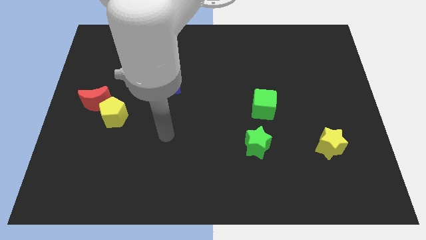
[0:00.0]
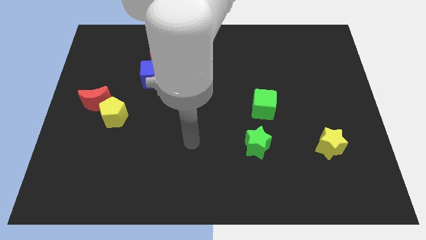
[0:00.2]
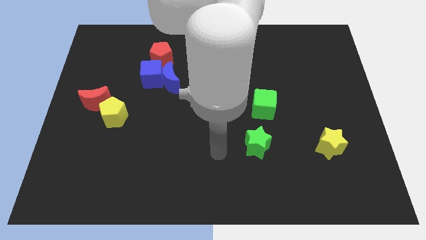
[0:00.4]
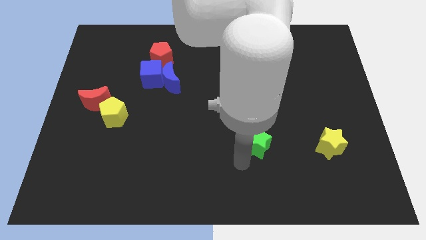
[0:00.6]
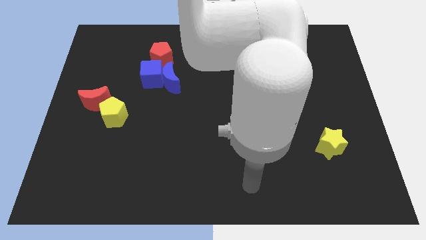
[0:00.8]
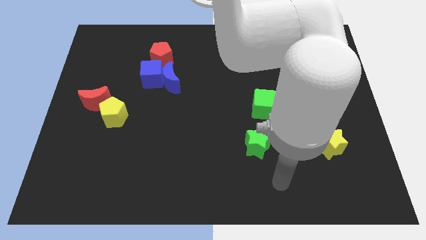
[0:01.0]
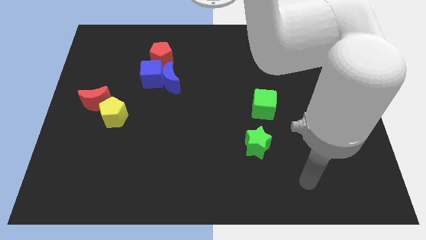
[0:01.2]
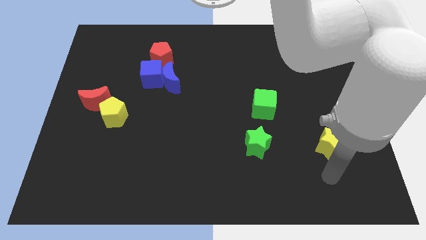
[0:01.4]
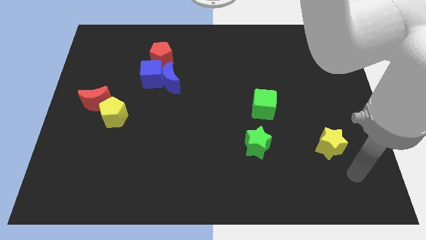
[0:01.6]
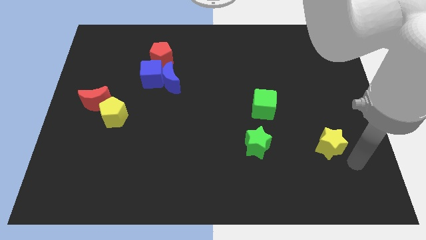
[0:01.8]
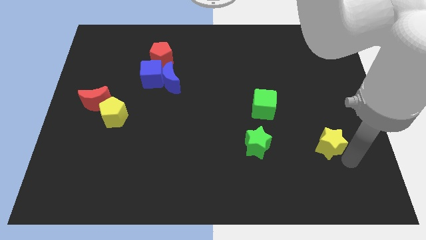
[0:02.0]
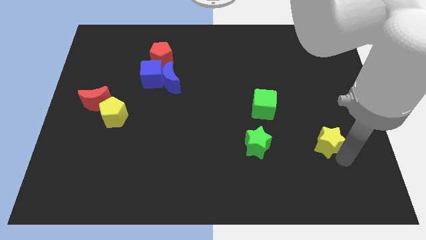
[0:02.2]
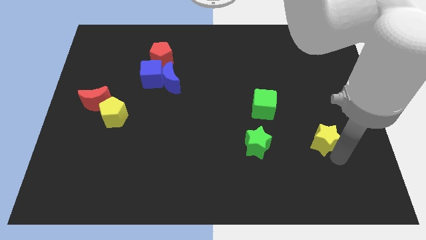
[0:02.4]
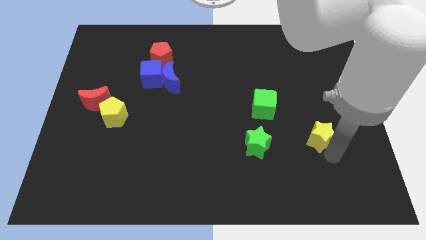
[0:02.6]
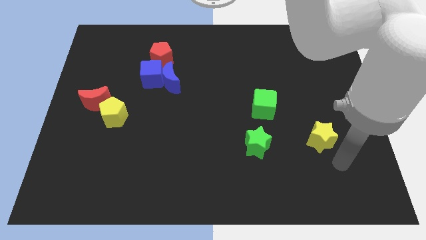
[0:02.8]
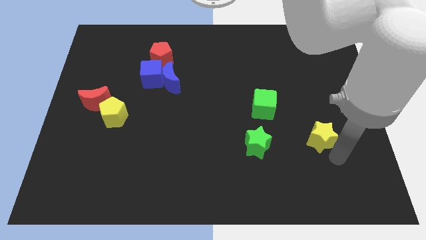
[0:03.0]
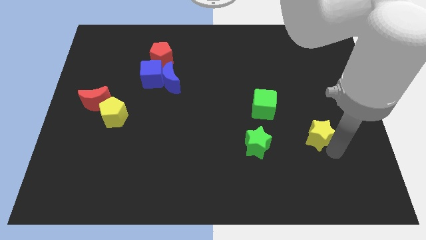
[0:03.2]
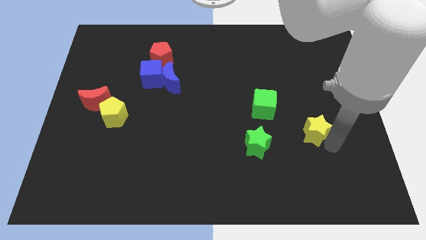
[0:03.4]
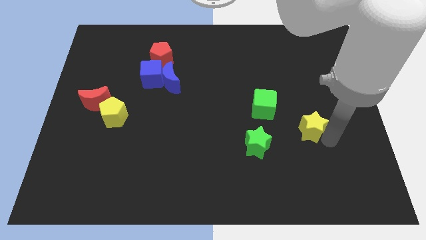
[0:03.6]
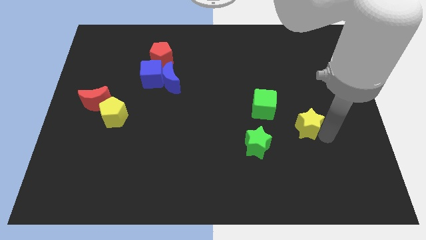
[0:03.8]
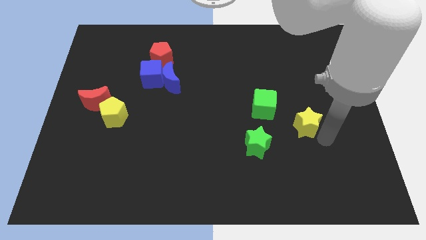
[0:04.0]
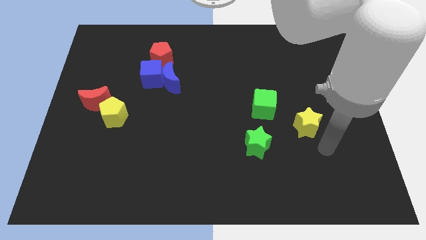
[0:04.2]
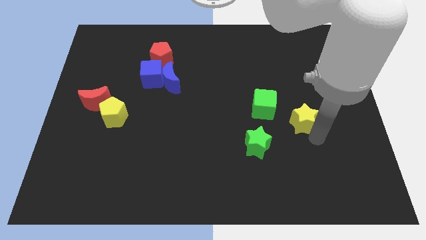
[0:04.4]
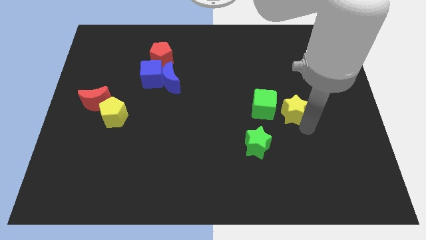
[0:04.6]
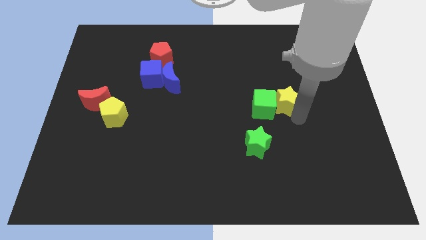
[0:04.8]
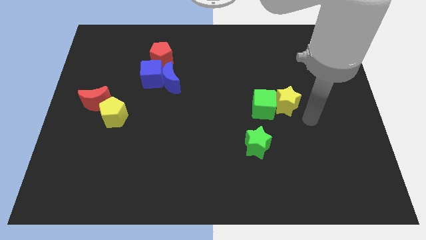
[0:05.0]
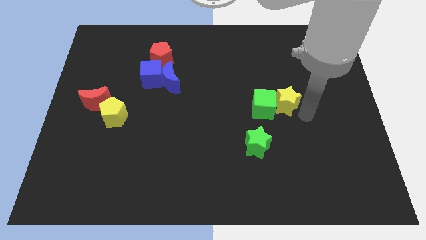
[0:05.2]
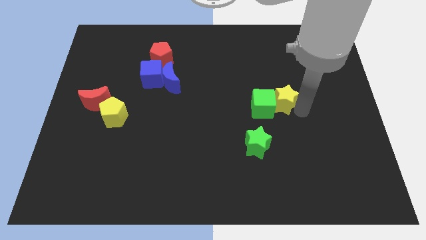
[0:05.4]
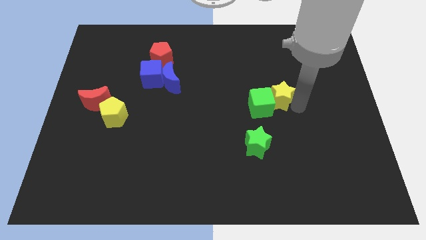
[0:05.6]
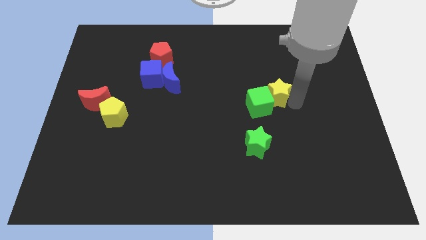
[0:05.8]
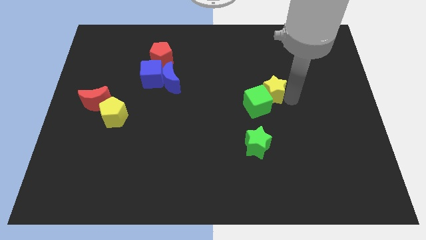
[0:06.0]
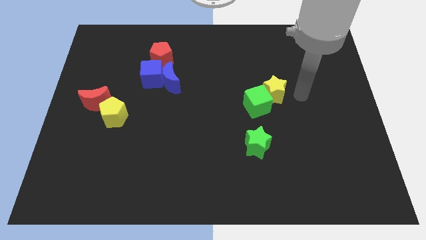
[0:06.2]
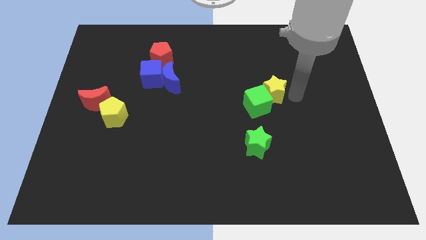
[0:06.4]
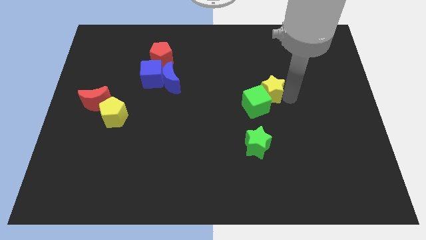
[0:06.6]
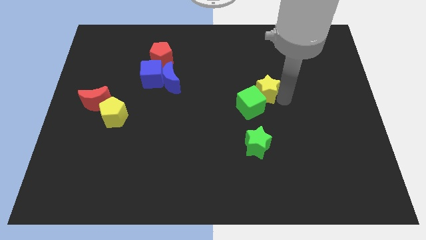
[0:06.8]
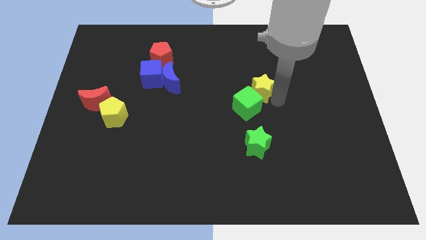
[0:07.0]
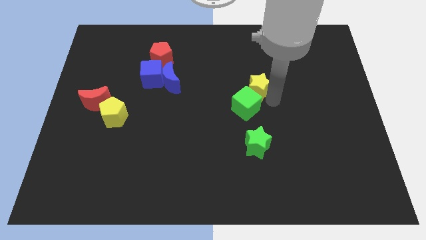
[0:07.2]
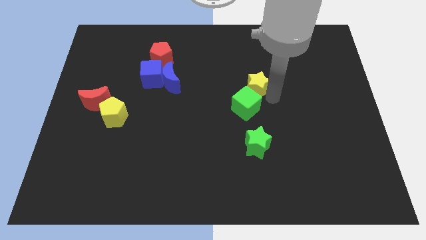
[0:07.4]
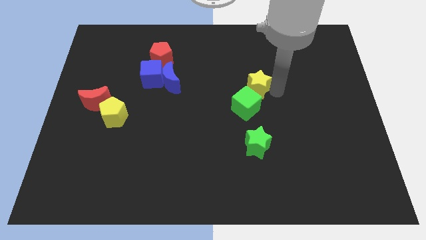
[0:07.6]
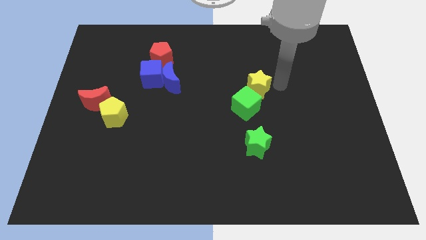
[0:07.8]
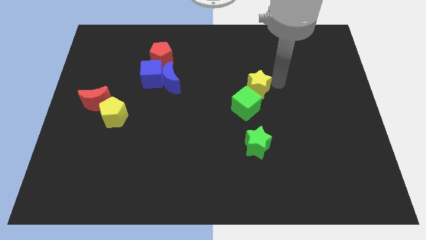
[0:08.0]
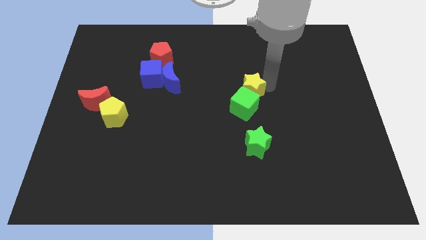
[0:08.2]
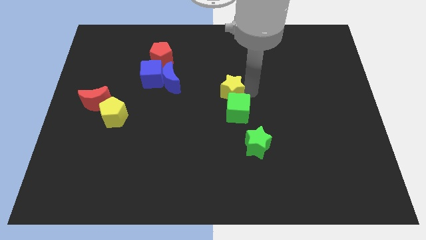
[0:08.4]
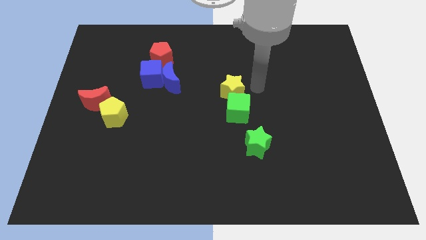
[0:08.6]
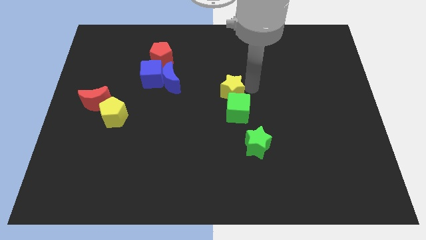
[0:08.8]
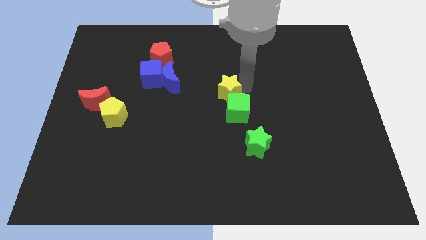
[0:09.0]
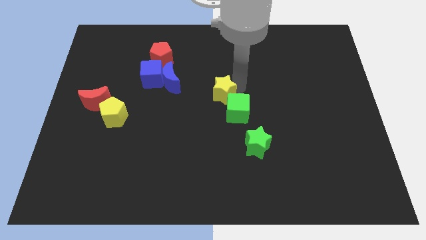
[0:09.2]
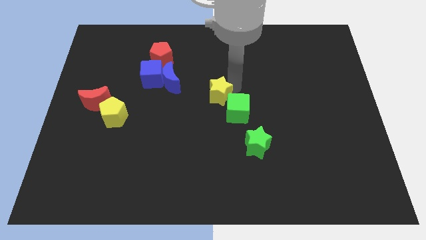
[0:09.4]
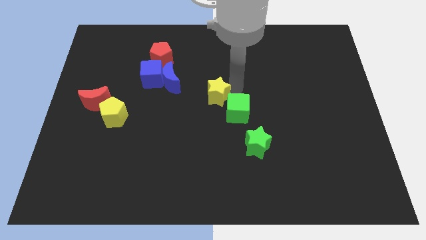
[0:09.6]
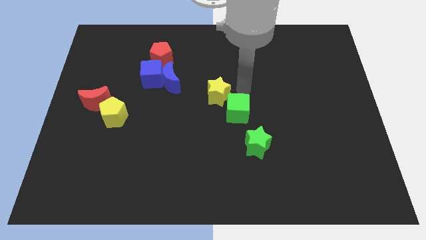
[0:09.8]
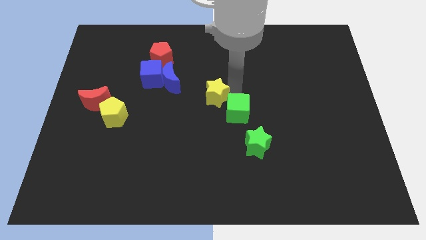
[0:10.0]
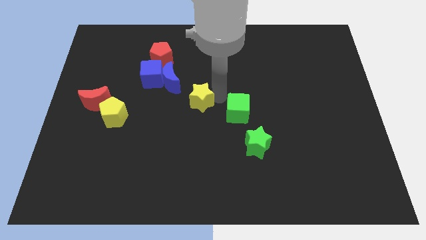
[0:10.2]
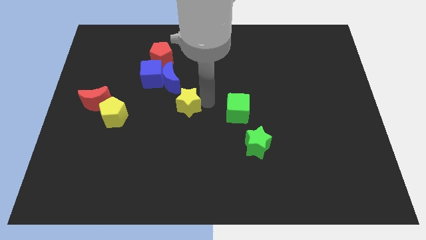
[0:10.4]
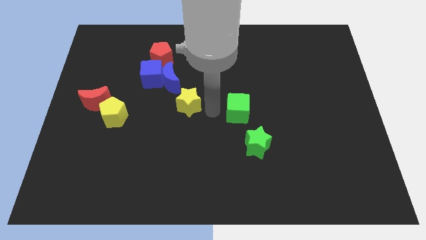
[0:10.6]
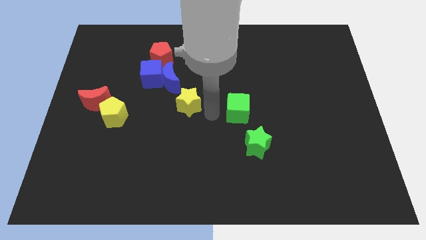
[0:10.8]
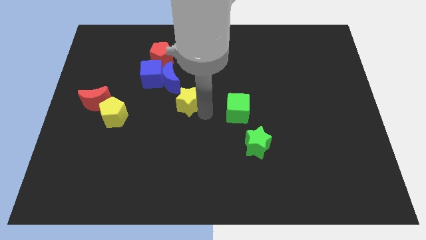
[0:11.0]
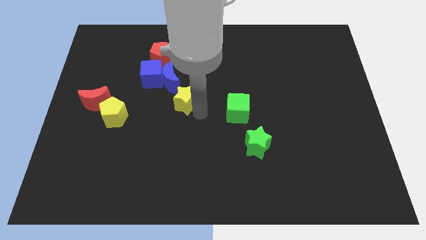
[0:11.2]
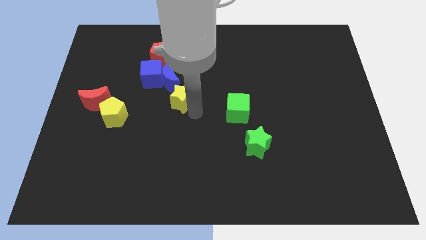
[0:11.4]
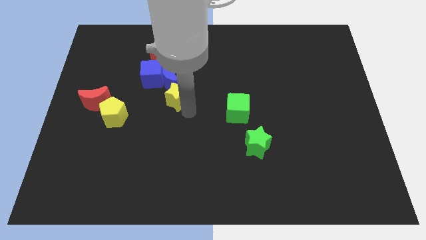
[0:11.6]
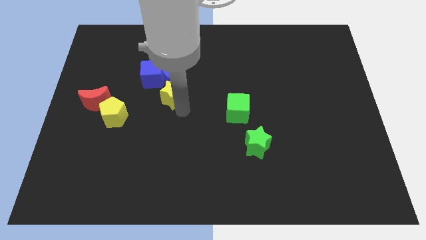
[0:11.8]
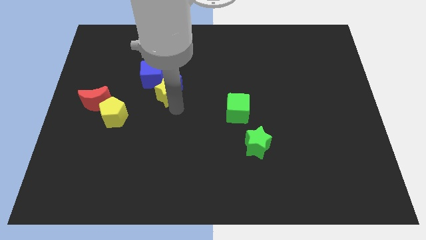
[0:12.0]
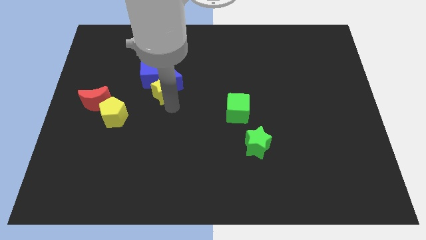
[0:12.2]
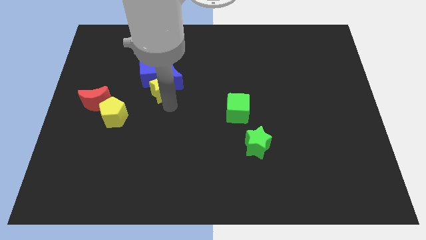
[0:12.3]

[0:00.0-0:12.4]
slide the yellow star to the blue cube
